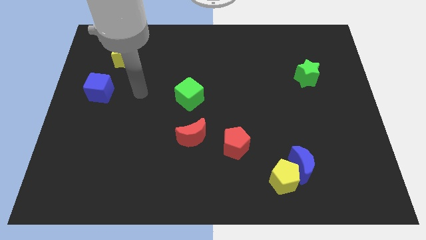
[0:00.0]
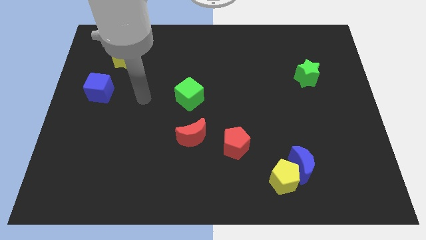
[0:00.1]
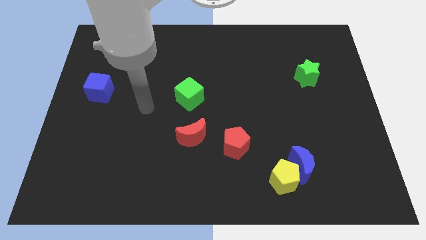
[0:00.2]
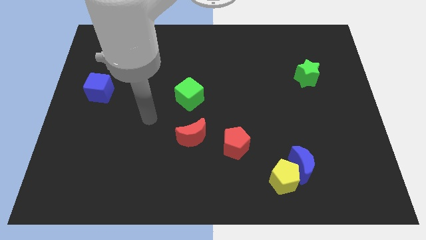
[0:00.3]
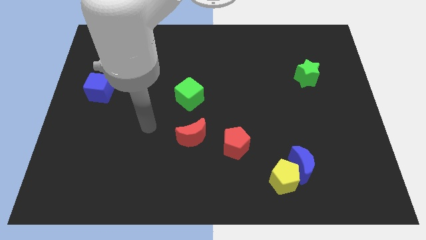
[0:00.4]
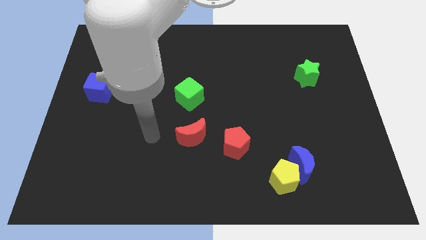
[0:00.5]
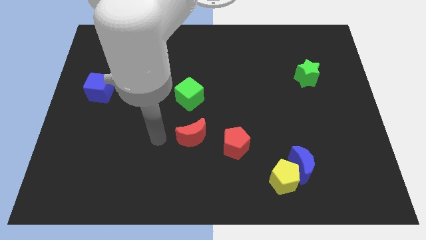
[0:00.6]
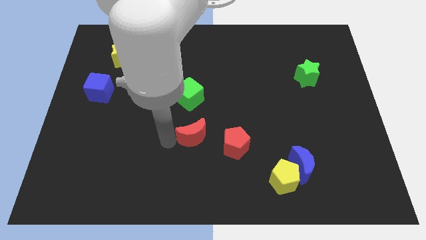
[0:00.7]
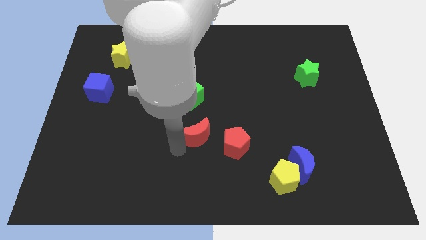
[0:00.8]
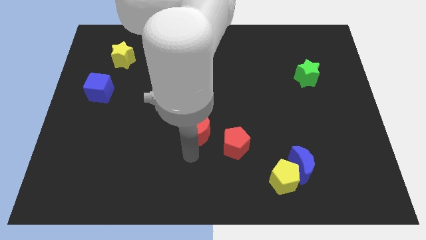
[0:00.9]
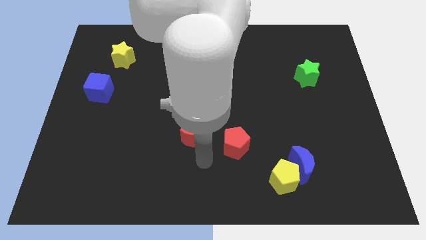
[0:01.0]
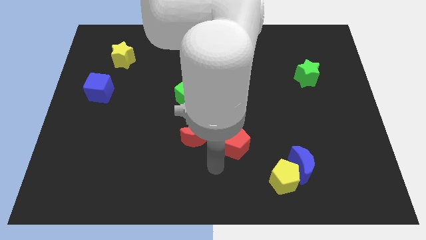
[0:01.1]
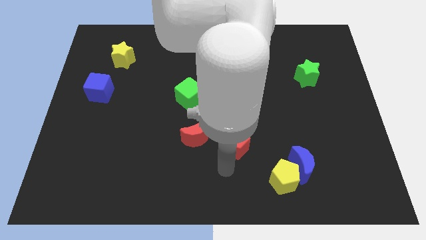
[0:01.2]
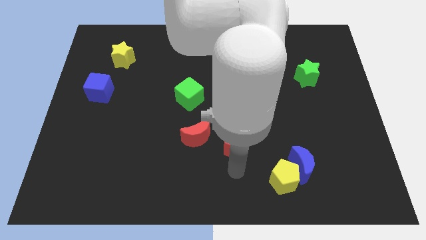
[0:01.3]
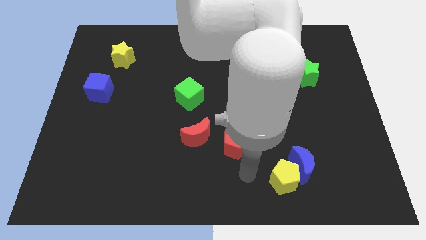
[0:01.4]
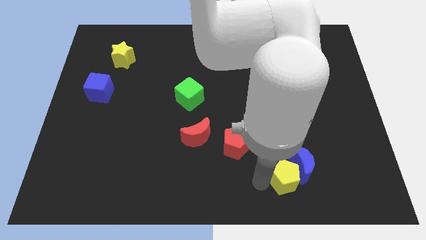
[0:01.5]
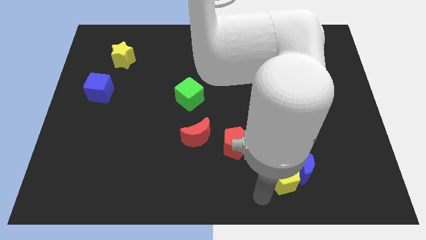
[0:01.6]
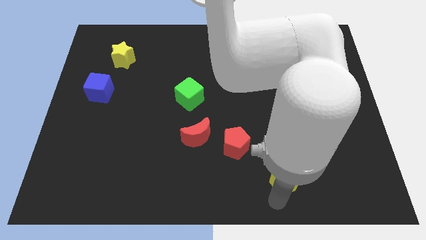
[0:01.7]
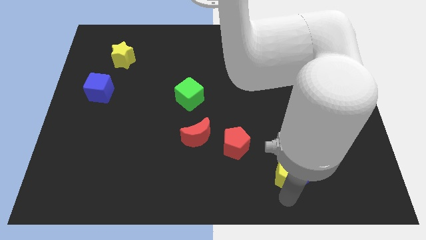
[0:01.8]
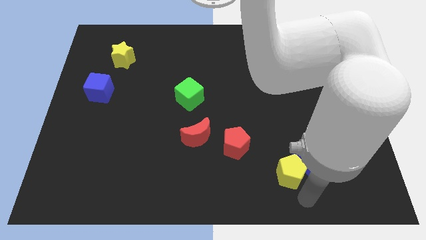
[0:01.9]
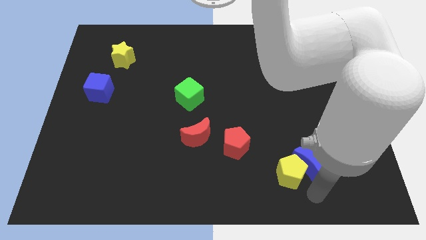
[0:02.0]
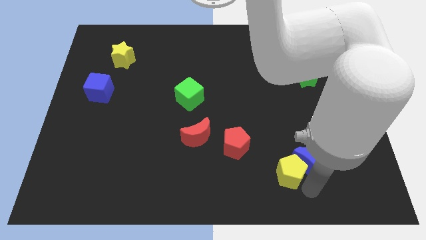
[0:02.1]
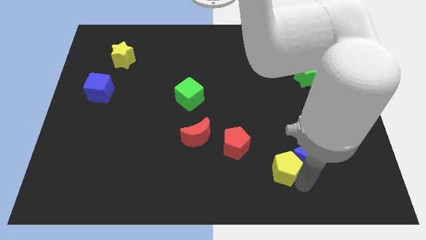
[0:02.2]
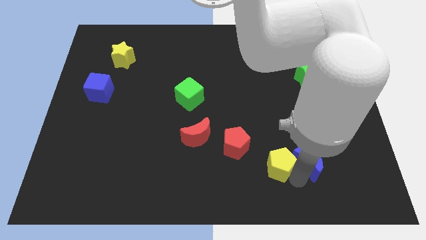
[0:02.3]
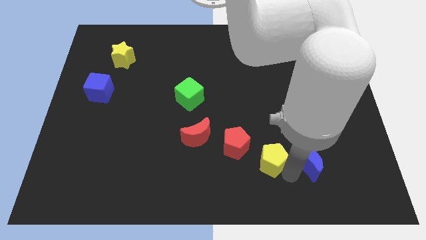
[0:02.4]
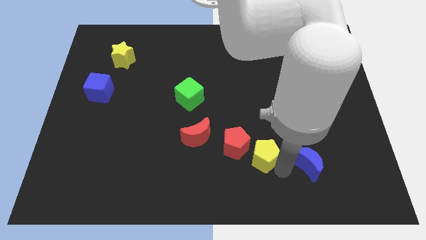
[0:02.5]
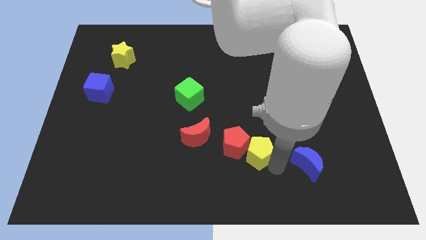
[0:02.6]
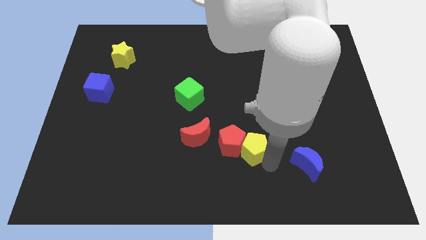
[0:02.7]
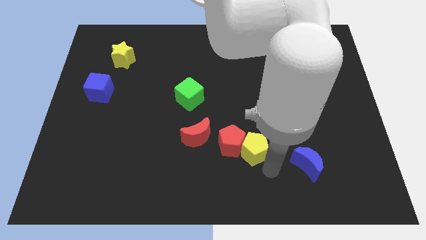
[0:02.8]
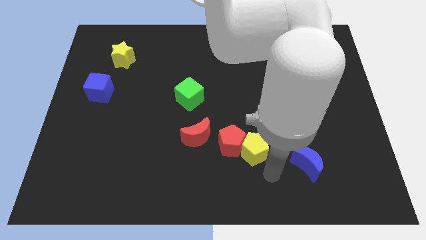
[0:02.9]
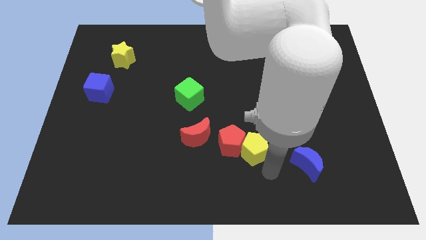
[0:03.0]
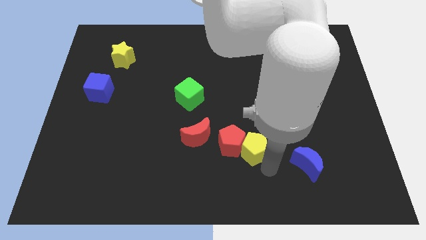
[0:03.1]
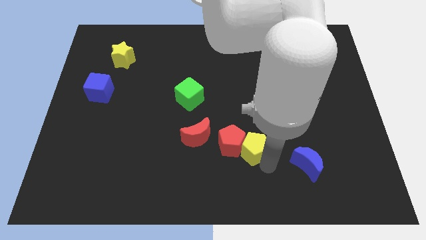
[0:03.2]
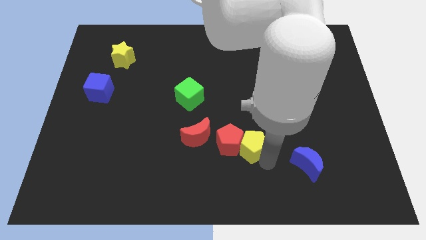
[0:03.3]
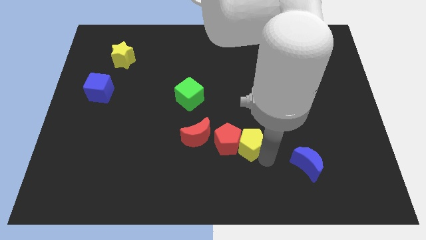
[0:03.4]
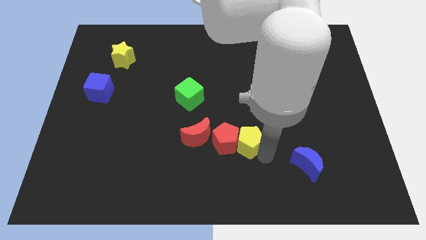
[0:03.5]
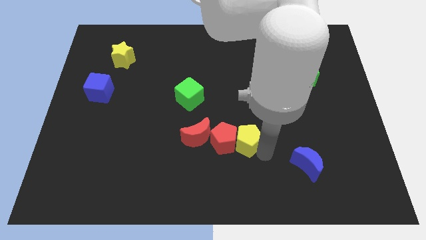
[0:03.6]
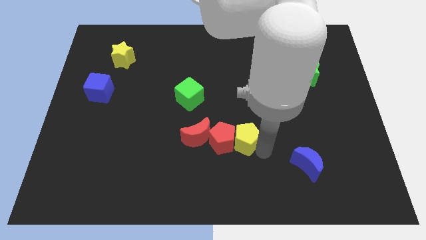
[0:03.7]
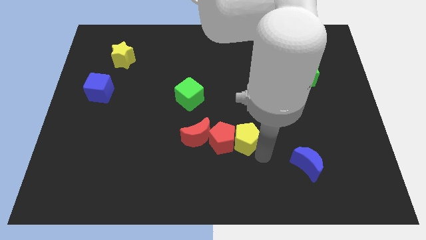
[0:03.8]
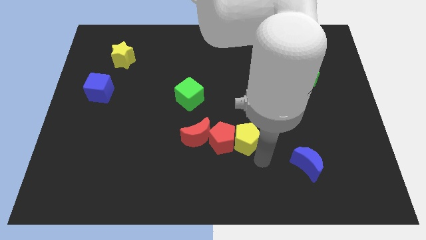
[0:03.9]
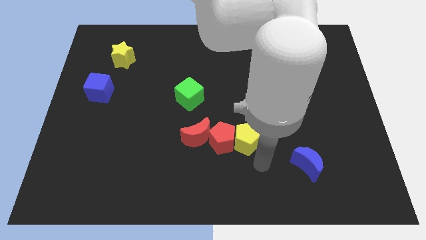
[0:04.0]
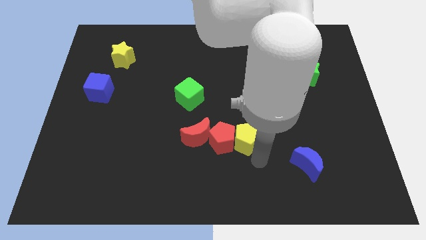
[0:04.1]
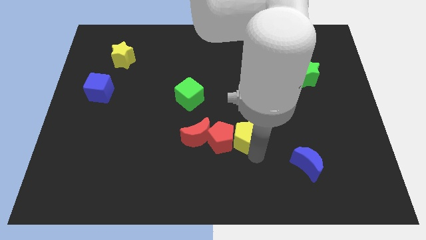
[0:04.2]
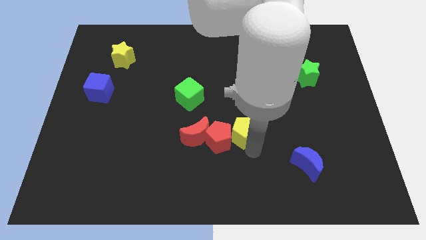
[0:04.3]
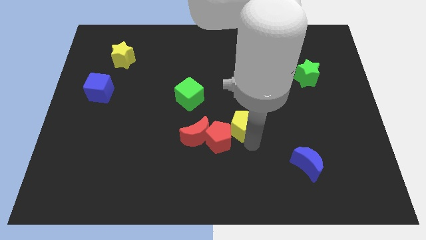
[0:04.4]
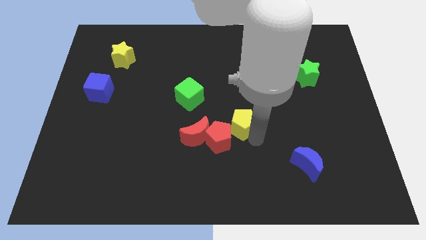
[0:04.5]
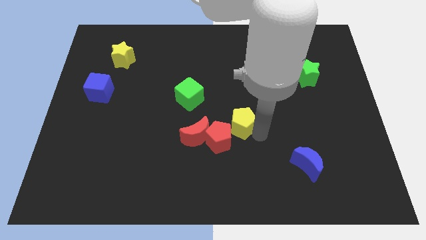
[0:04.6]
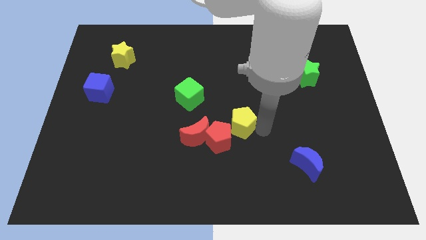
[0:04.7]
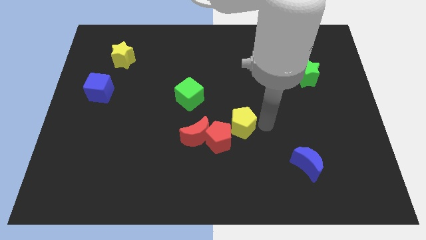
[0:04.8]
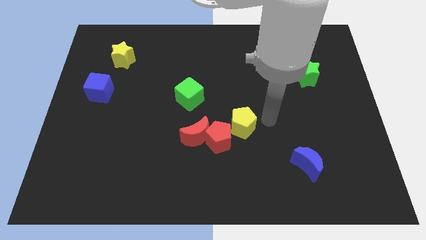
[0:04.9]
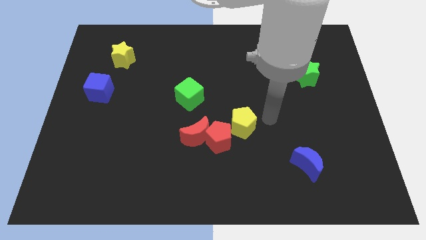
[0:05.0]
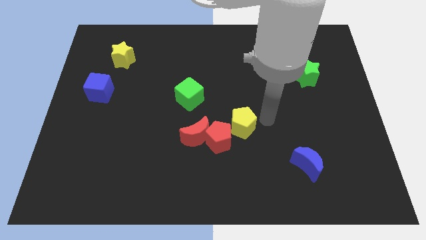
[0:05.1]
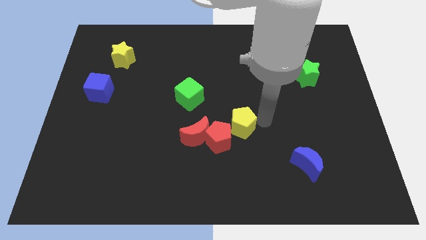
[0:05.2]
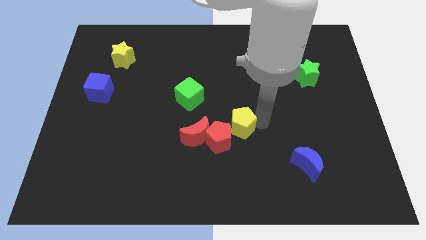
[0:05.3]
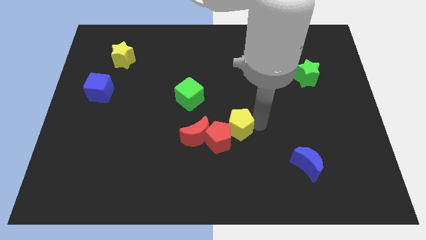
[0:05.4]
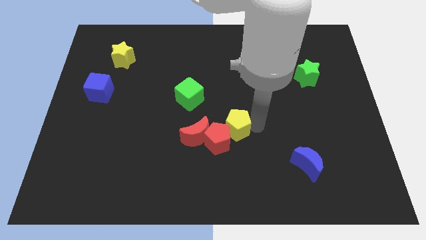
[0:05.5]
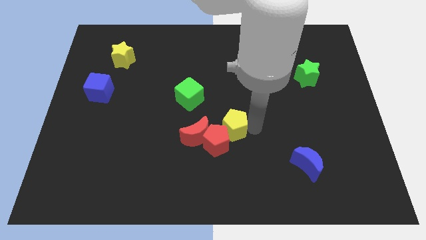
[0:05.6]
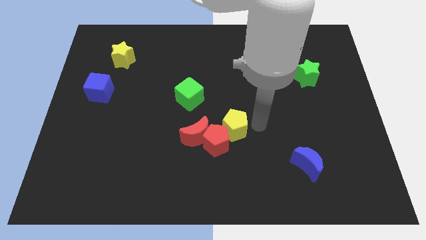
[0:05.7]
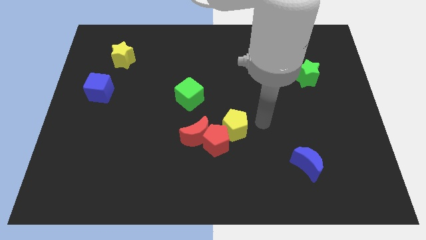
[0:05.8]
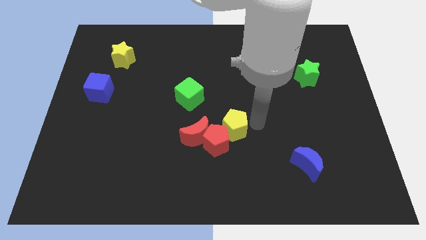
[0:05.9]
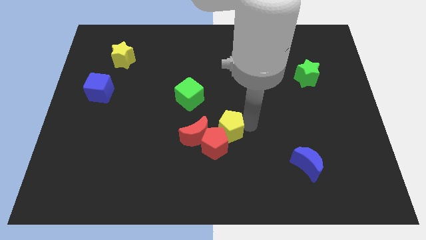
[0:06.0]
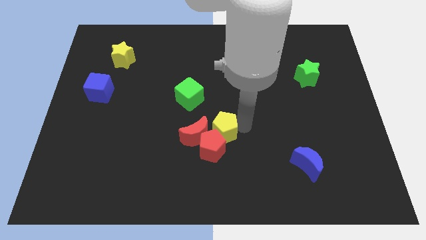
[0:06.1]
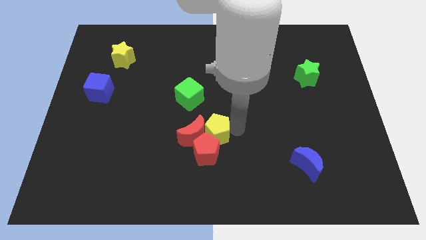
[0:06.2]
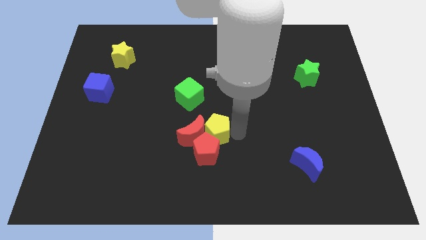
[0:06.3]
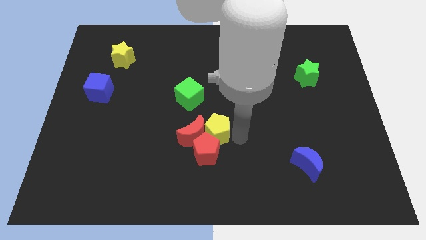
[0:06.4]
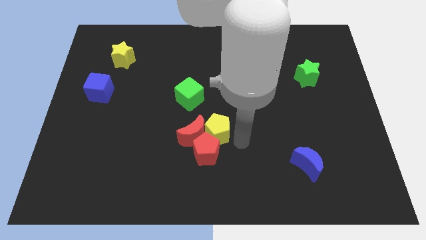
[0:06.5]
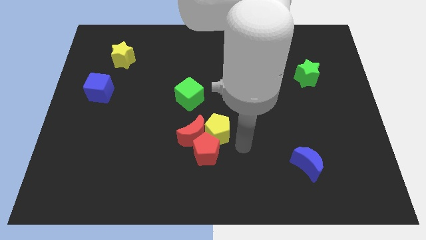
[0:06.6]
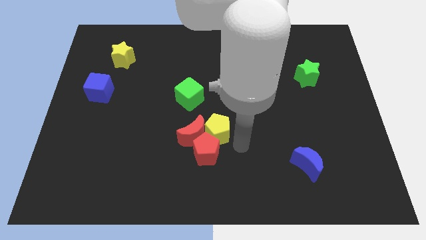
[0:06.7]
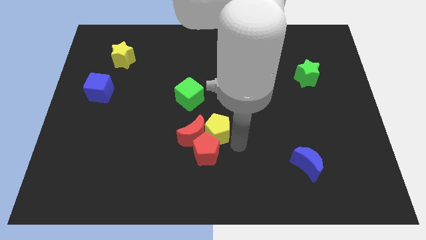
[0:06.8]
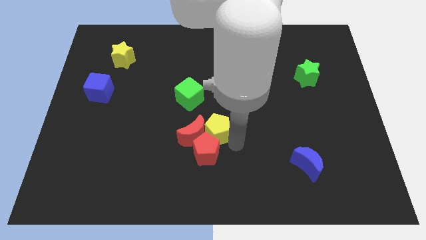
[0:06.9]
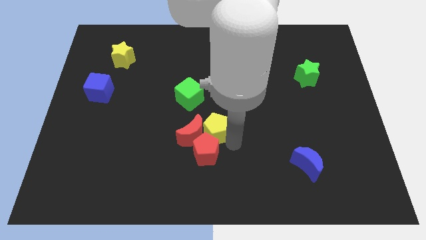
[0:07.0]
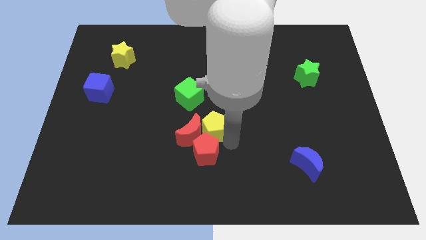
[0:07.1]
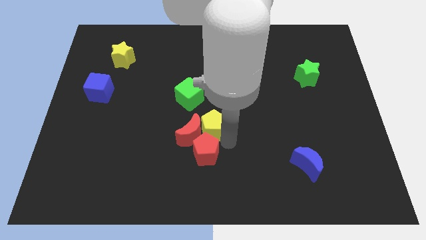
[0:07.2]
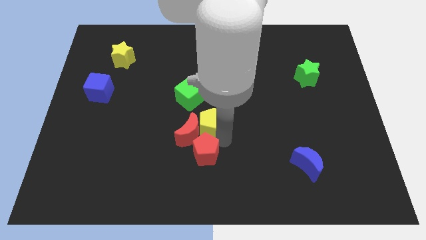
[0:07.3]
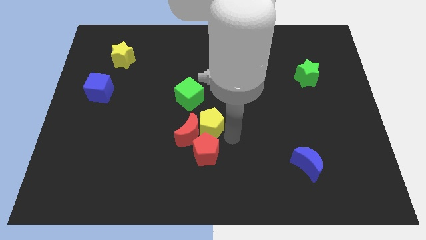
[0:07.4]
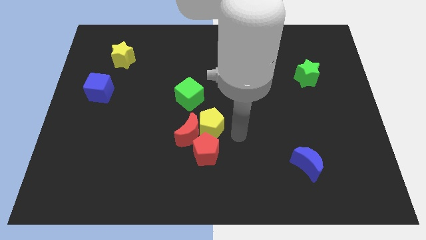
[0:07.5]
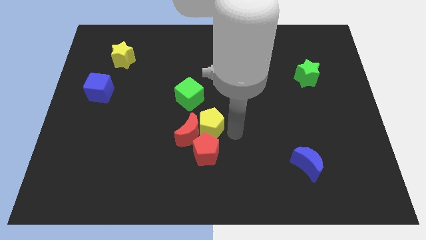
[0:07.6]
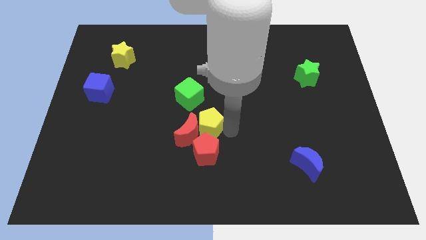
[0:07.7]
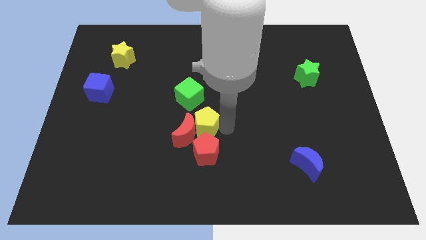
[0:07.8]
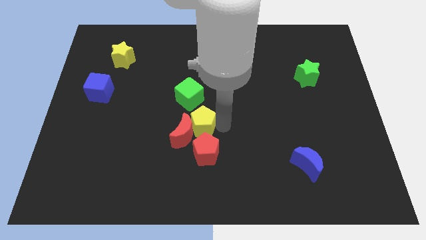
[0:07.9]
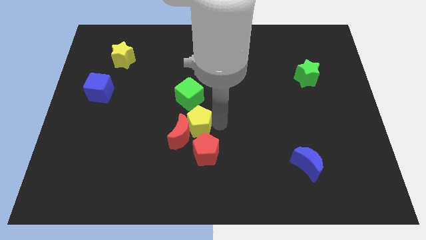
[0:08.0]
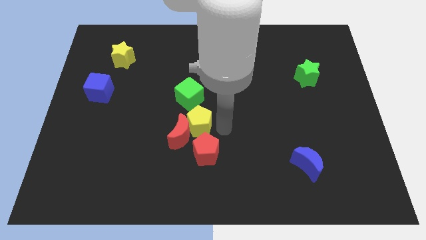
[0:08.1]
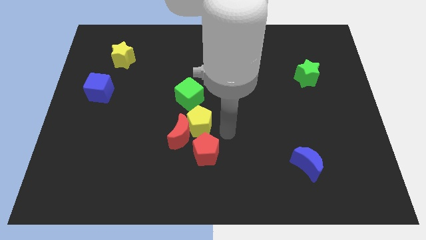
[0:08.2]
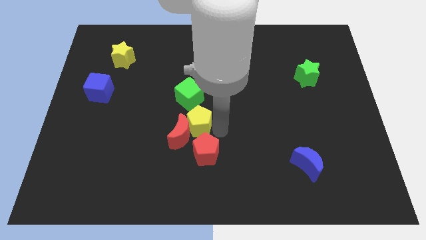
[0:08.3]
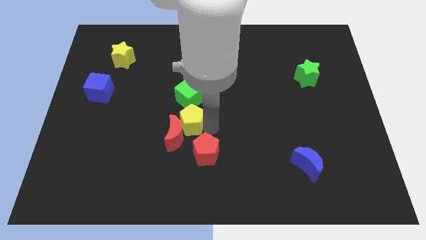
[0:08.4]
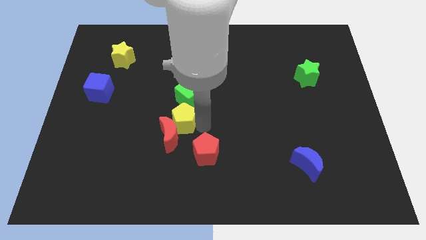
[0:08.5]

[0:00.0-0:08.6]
slide the yellow pentagon to the bottom left side of the green cube
